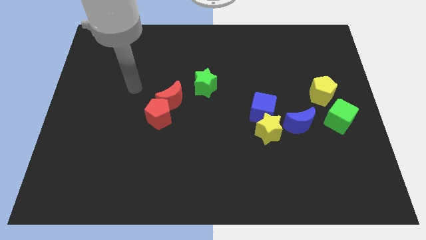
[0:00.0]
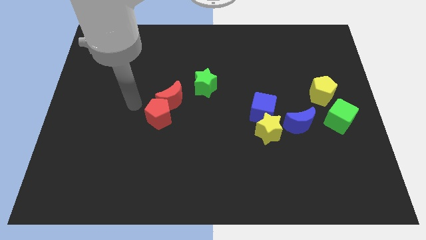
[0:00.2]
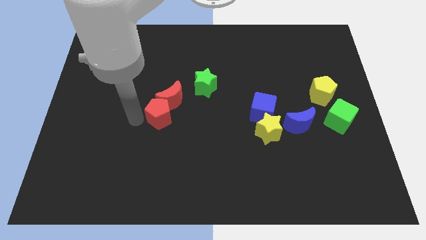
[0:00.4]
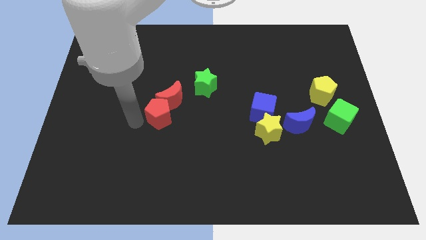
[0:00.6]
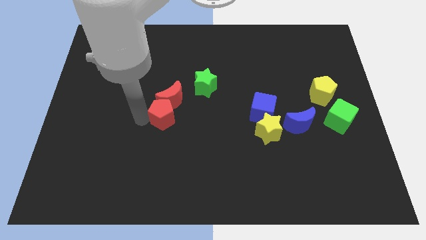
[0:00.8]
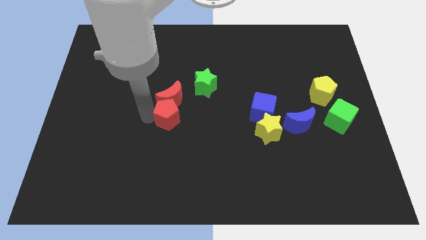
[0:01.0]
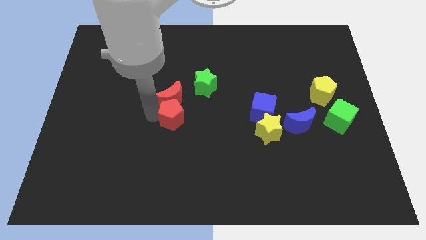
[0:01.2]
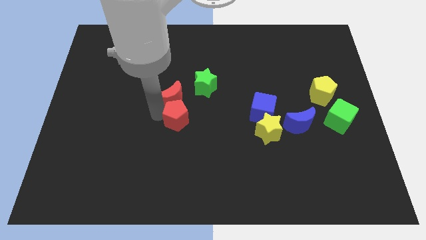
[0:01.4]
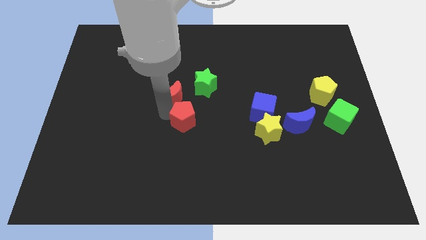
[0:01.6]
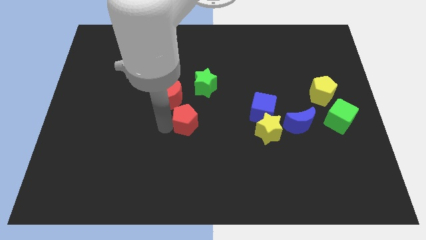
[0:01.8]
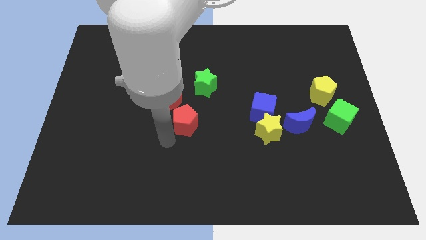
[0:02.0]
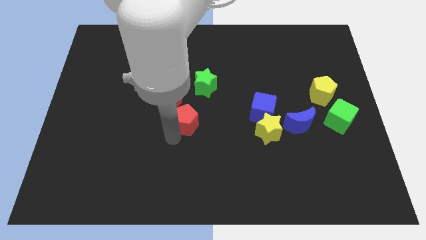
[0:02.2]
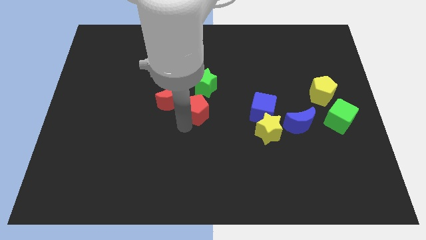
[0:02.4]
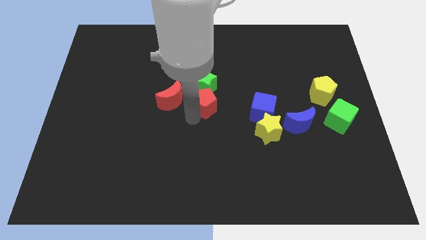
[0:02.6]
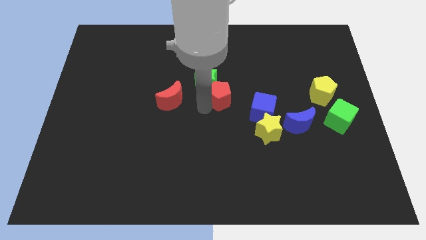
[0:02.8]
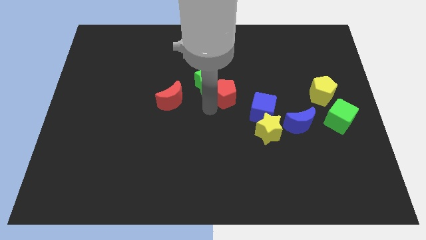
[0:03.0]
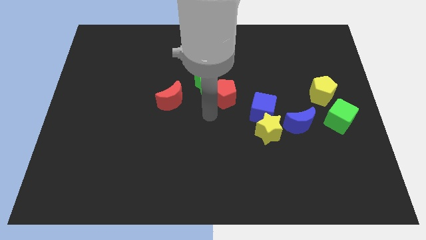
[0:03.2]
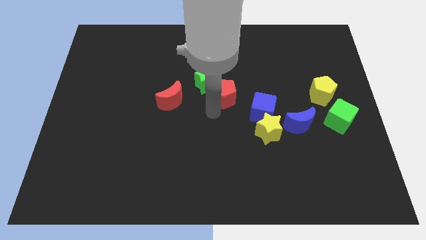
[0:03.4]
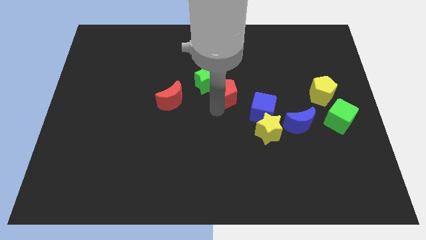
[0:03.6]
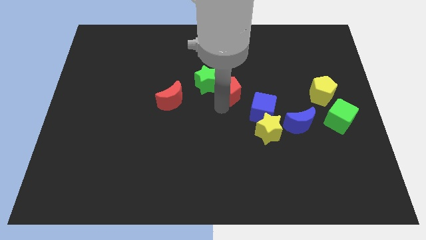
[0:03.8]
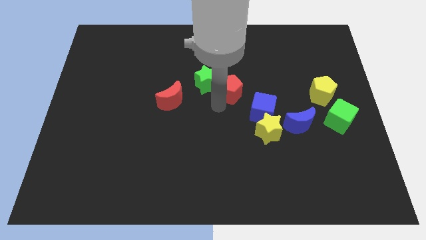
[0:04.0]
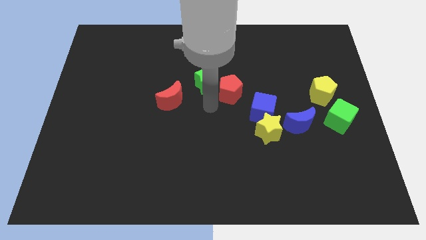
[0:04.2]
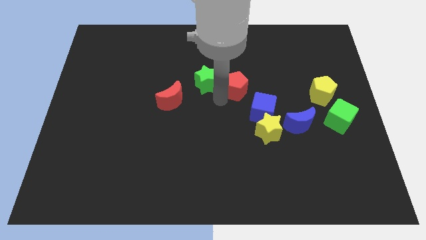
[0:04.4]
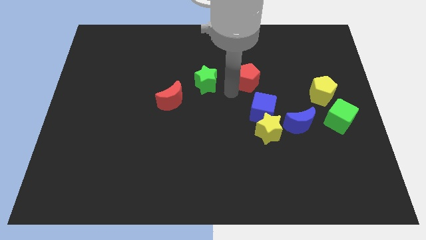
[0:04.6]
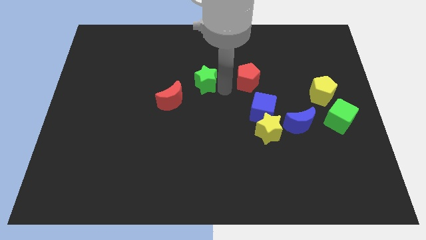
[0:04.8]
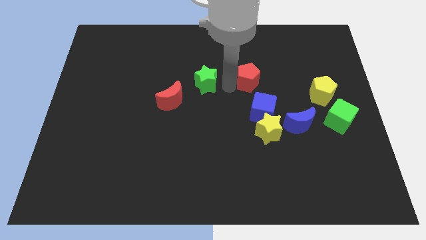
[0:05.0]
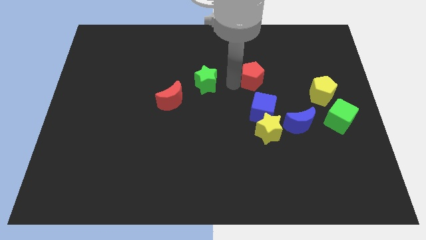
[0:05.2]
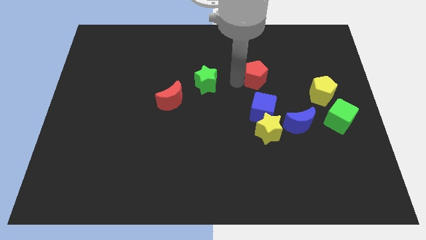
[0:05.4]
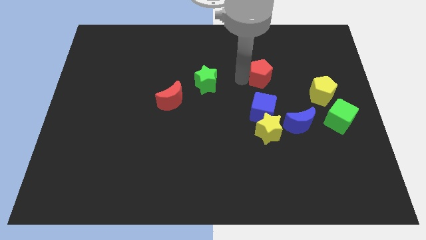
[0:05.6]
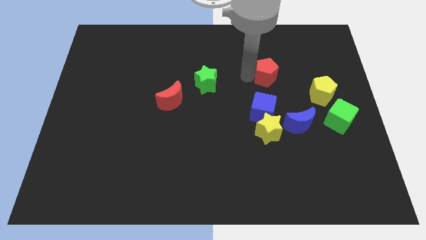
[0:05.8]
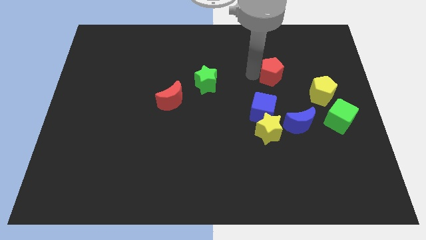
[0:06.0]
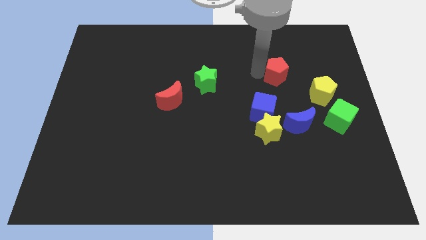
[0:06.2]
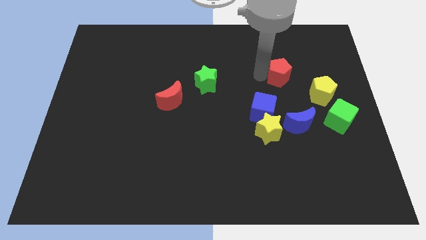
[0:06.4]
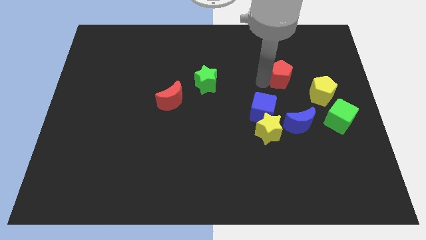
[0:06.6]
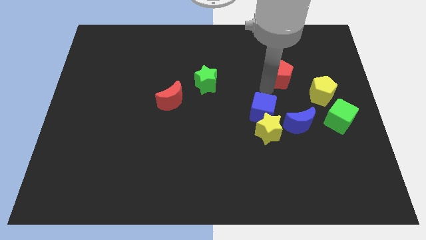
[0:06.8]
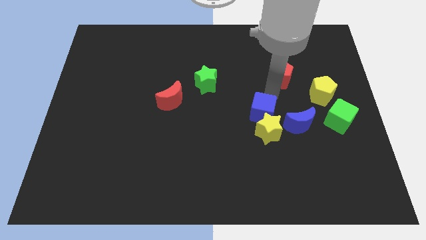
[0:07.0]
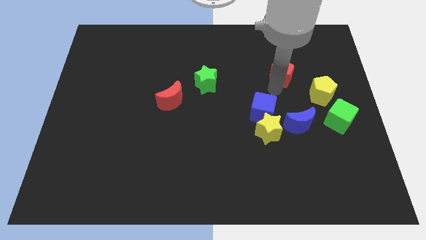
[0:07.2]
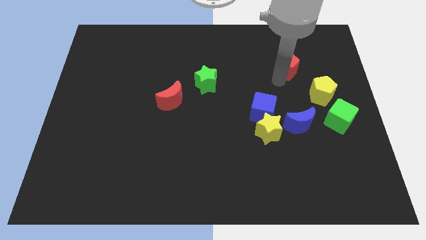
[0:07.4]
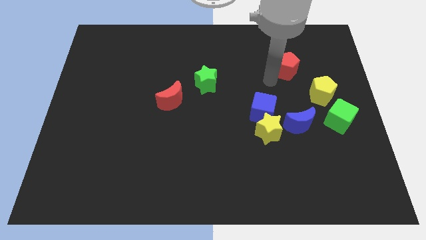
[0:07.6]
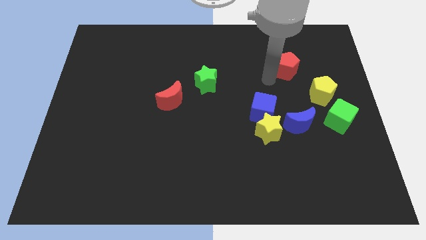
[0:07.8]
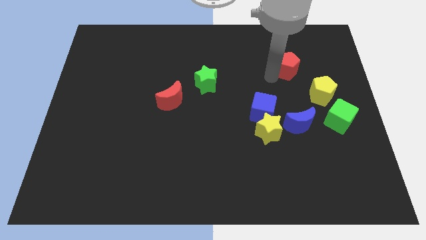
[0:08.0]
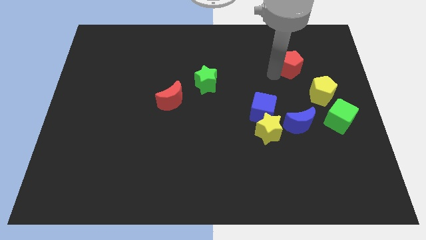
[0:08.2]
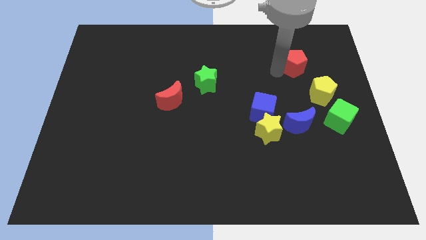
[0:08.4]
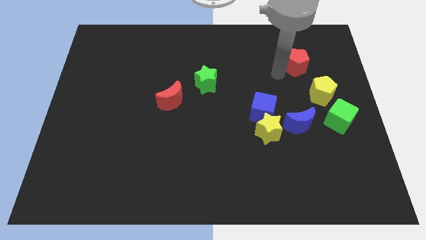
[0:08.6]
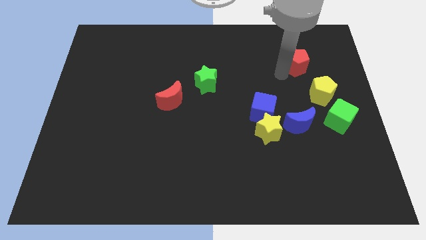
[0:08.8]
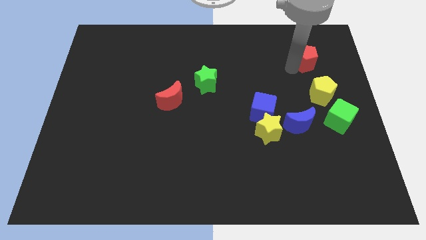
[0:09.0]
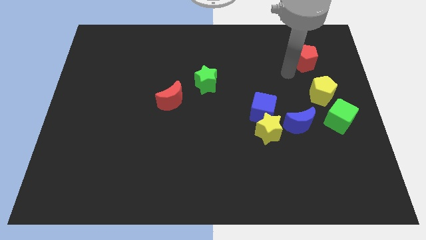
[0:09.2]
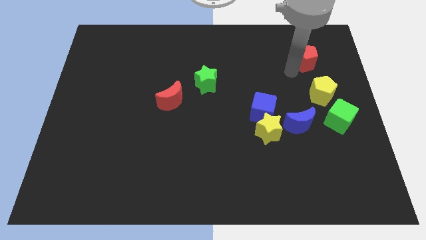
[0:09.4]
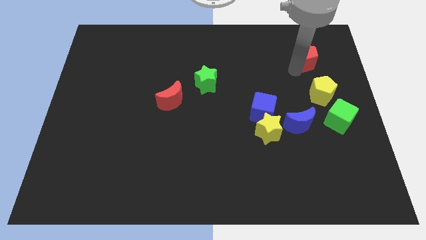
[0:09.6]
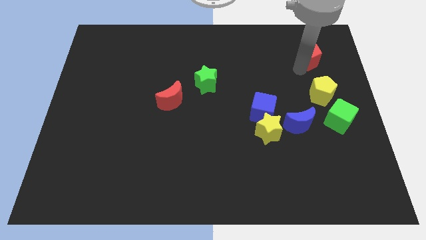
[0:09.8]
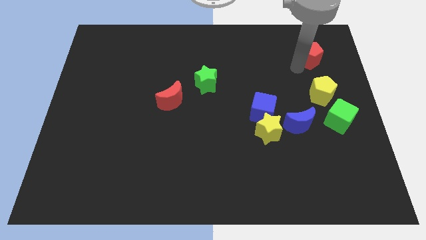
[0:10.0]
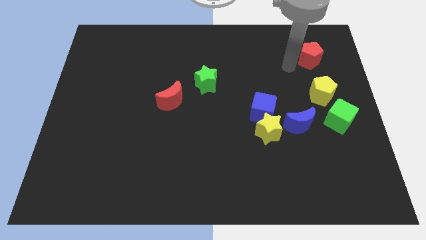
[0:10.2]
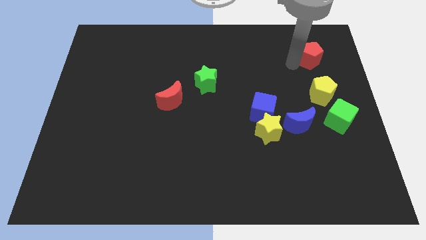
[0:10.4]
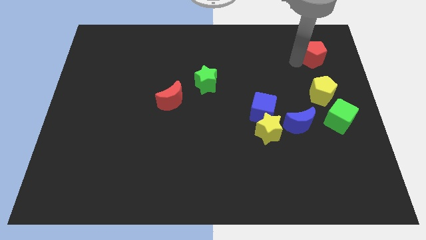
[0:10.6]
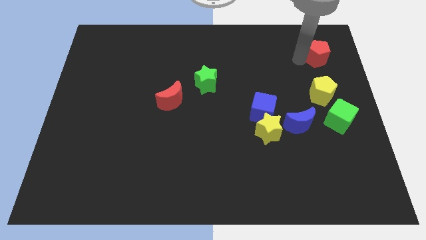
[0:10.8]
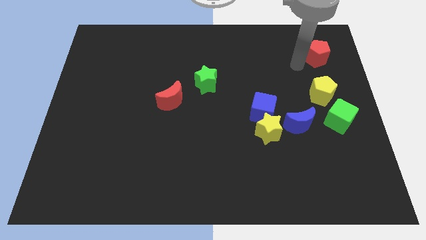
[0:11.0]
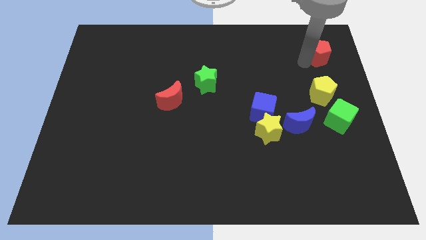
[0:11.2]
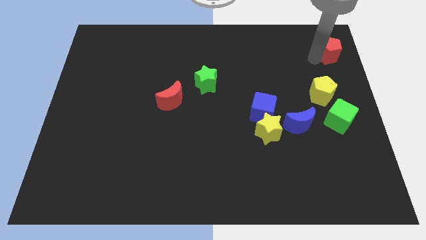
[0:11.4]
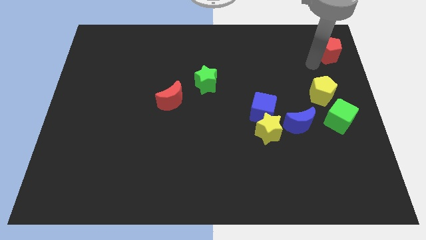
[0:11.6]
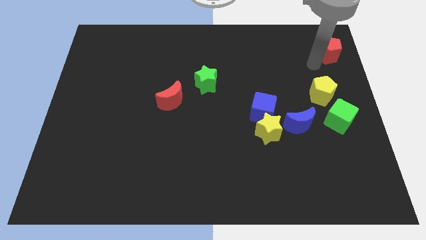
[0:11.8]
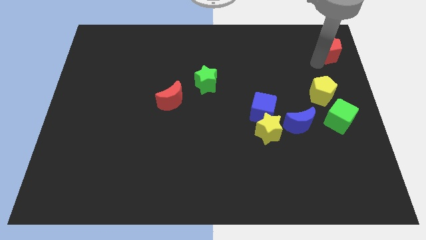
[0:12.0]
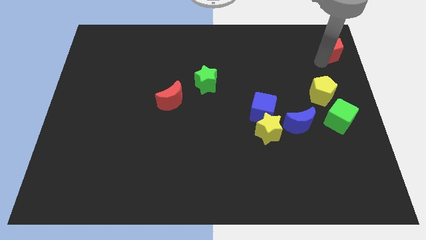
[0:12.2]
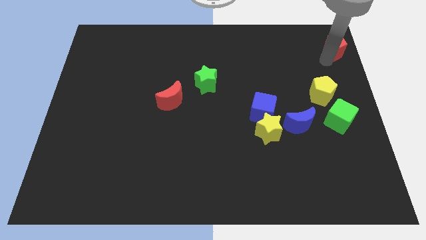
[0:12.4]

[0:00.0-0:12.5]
push the red pentagon to the top right corner
